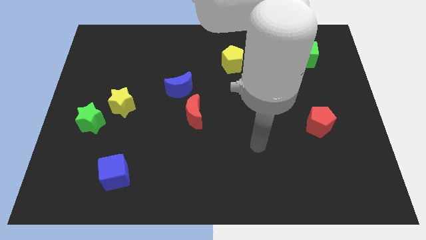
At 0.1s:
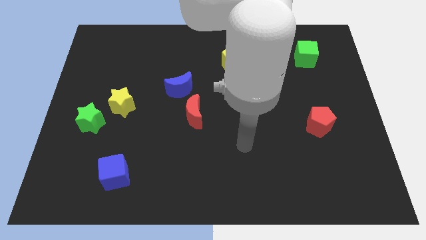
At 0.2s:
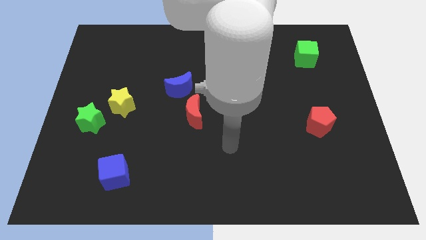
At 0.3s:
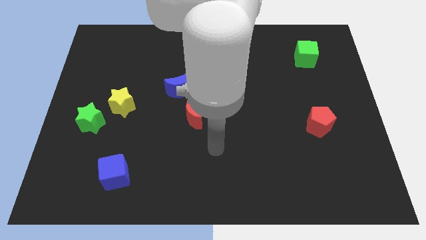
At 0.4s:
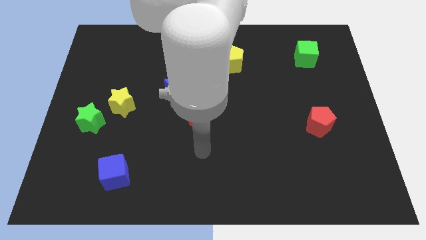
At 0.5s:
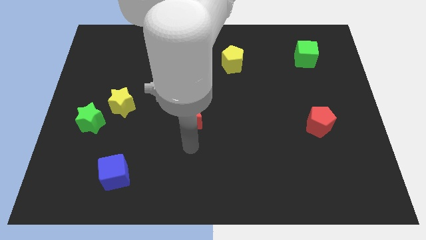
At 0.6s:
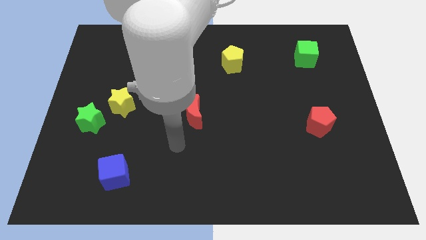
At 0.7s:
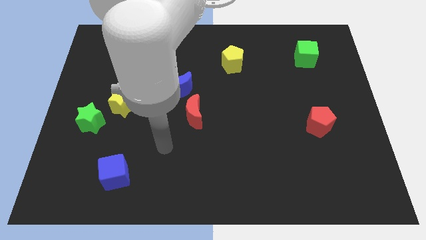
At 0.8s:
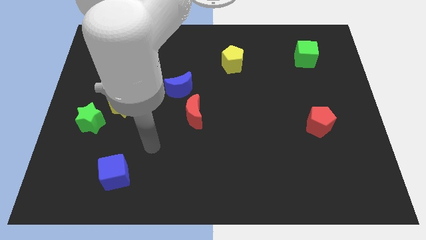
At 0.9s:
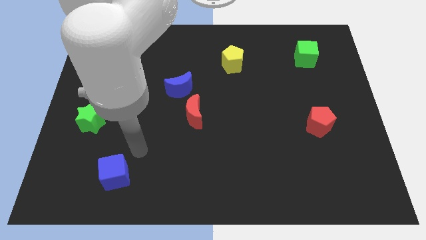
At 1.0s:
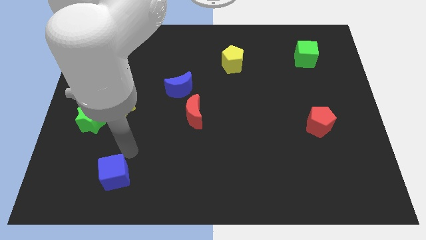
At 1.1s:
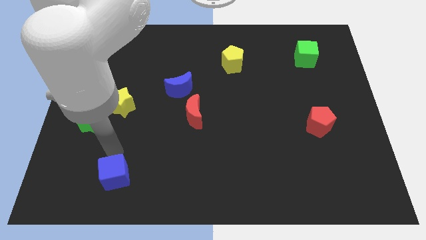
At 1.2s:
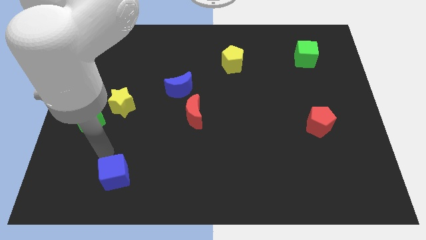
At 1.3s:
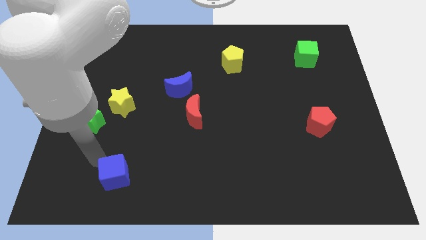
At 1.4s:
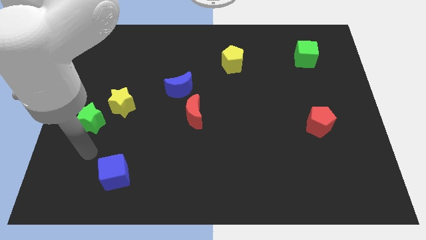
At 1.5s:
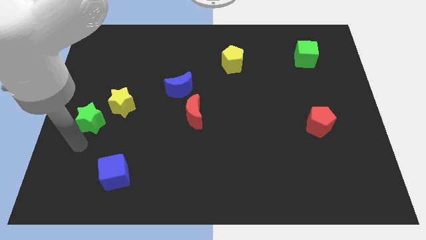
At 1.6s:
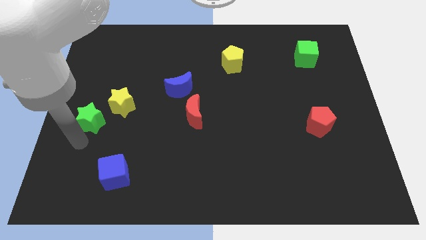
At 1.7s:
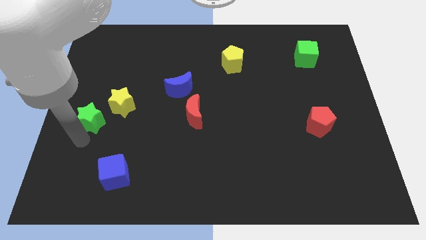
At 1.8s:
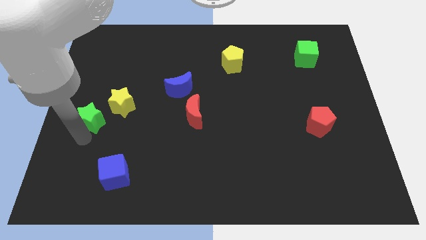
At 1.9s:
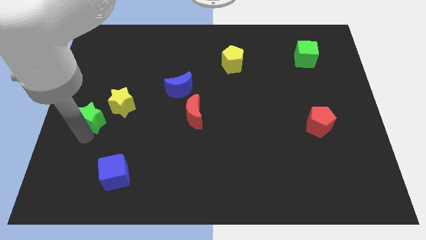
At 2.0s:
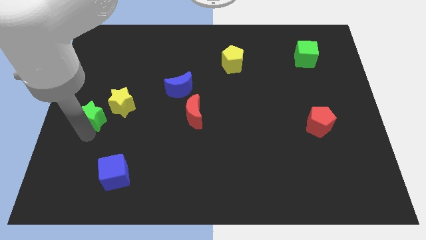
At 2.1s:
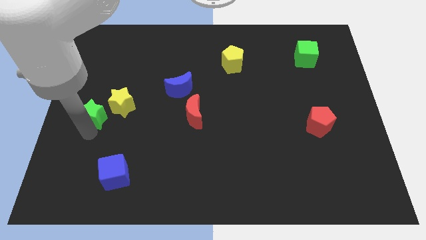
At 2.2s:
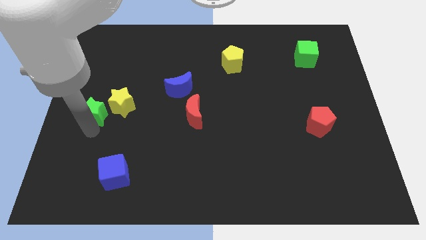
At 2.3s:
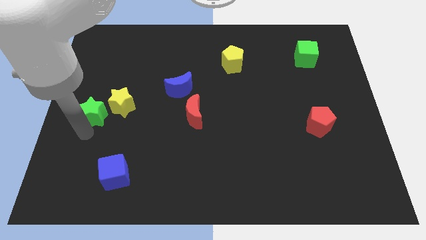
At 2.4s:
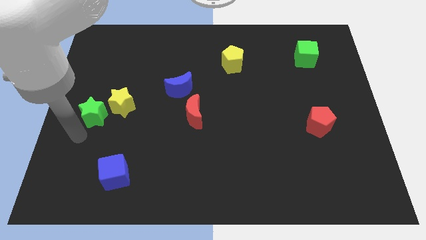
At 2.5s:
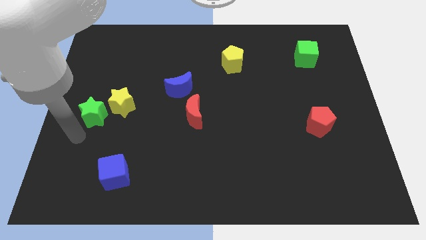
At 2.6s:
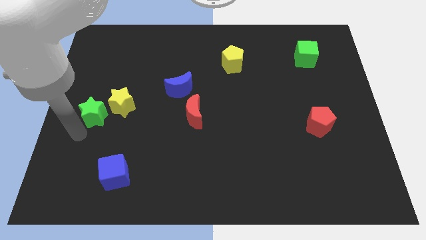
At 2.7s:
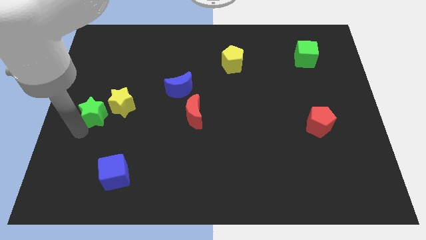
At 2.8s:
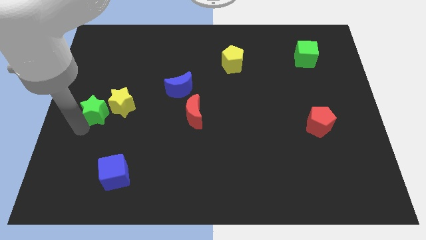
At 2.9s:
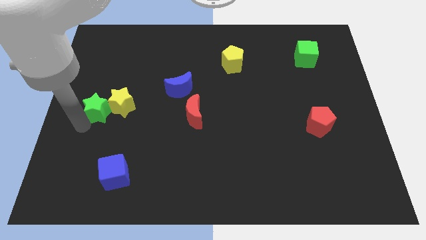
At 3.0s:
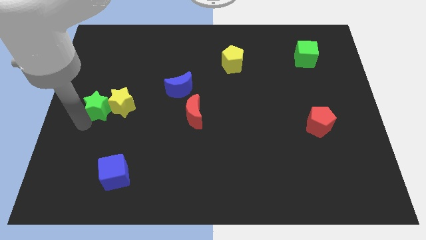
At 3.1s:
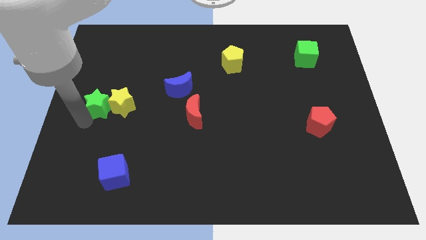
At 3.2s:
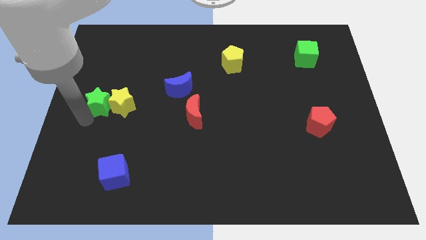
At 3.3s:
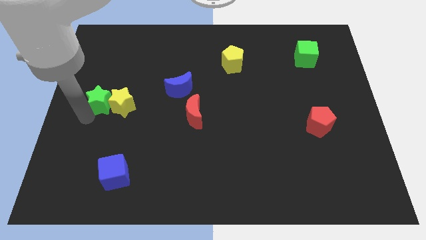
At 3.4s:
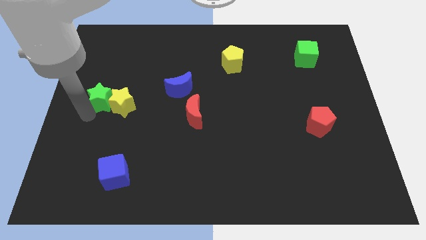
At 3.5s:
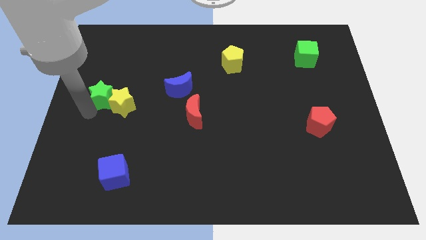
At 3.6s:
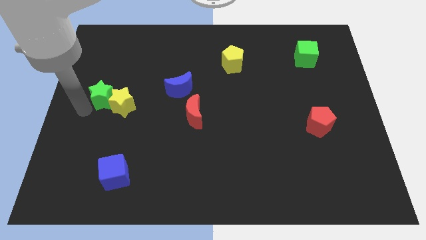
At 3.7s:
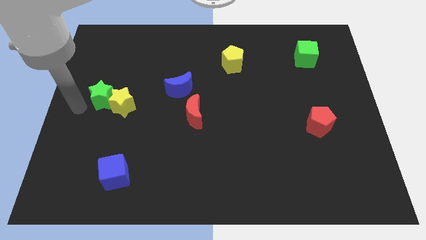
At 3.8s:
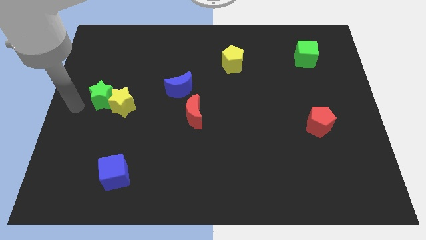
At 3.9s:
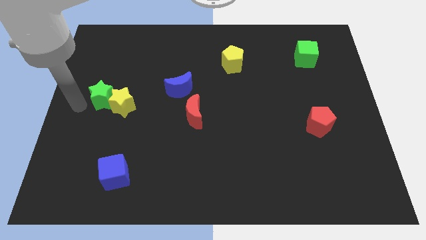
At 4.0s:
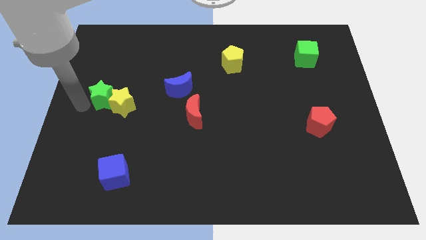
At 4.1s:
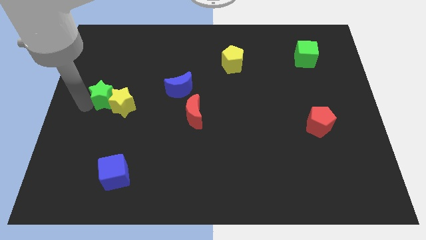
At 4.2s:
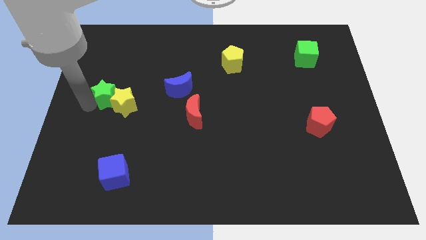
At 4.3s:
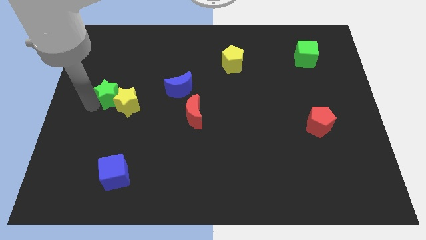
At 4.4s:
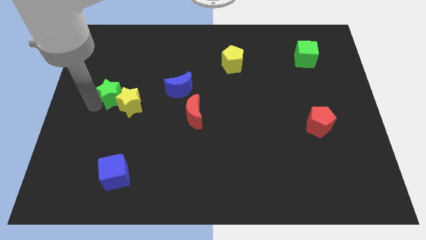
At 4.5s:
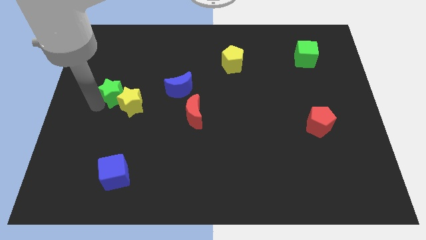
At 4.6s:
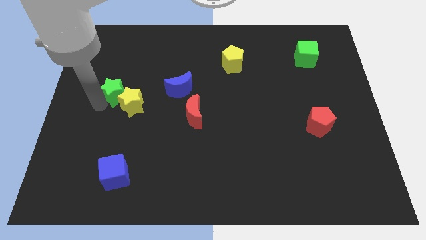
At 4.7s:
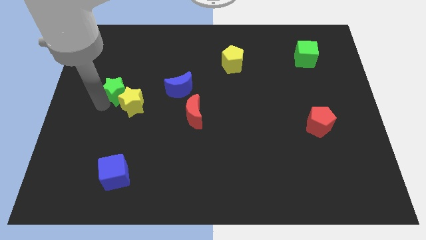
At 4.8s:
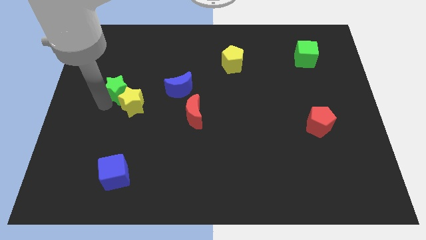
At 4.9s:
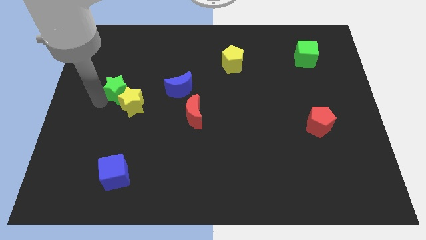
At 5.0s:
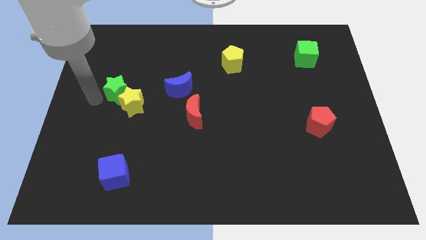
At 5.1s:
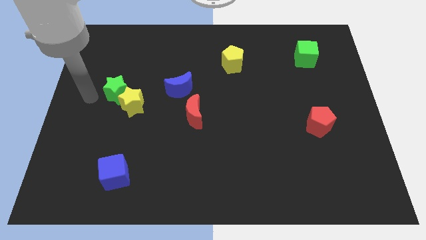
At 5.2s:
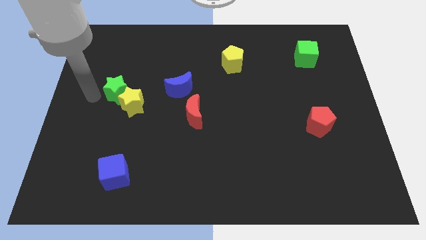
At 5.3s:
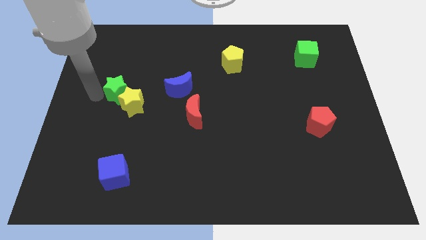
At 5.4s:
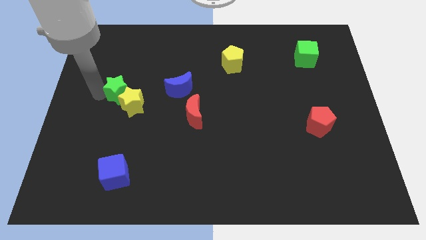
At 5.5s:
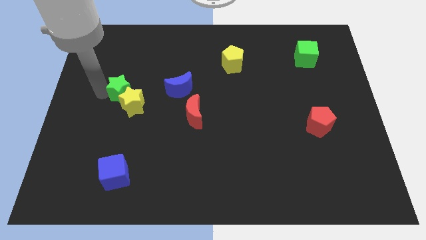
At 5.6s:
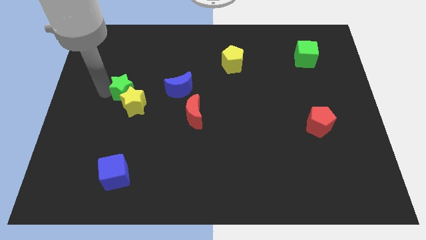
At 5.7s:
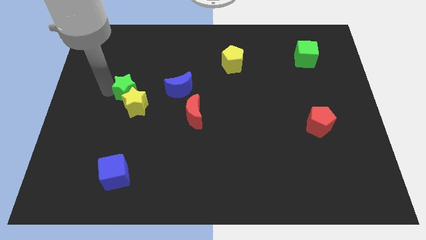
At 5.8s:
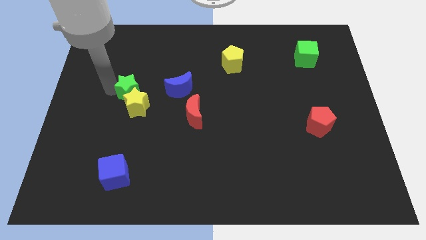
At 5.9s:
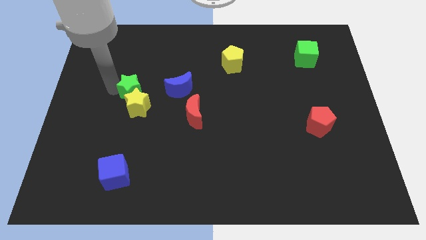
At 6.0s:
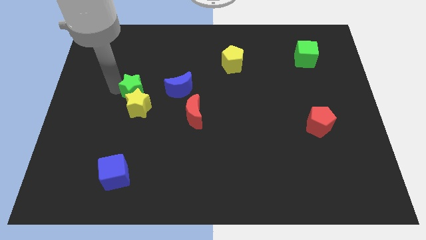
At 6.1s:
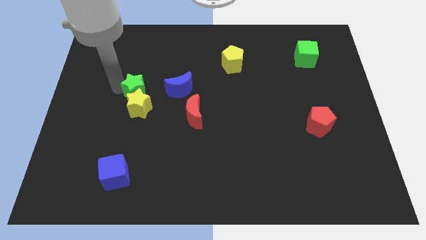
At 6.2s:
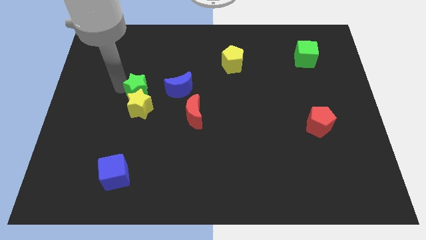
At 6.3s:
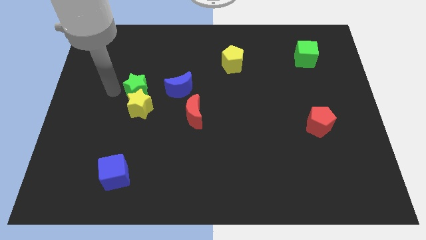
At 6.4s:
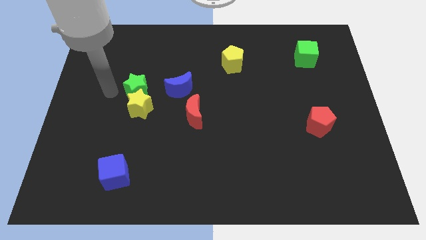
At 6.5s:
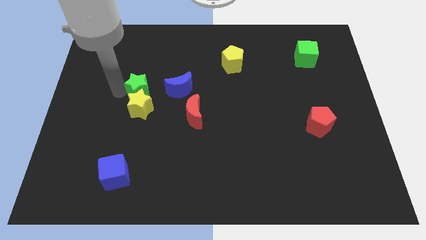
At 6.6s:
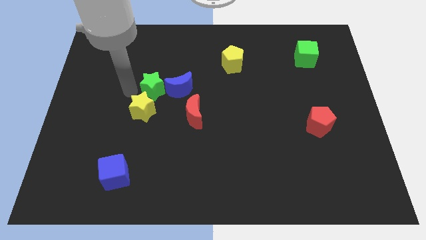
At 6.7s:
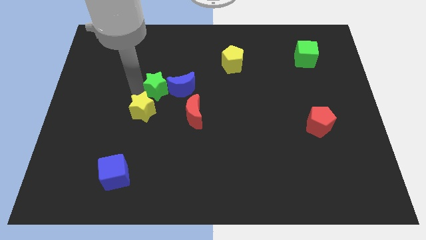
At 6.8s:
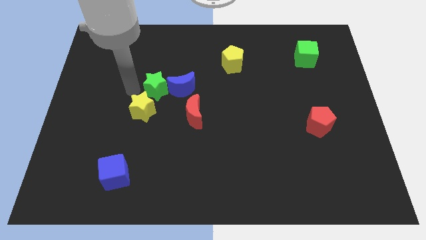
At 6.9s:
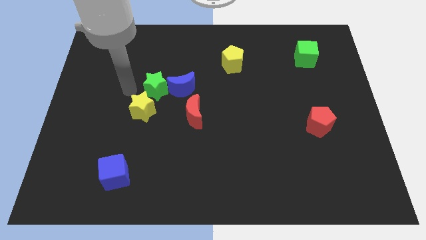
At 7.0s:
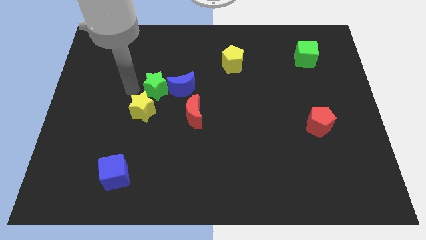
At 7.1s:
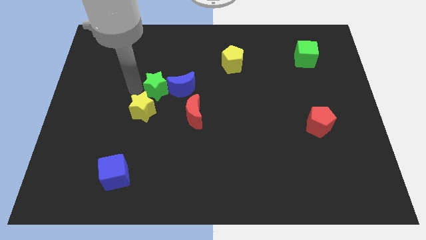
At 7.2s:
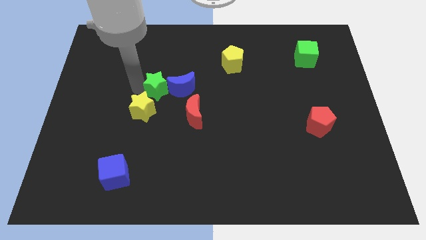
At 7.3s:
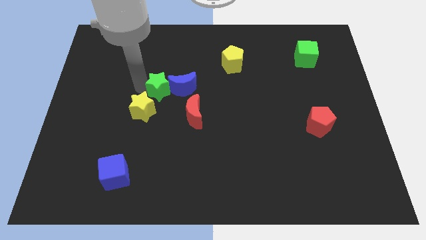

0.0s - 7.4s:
move the green star close to the blue moon
